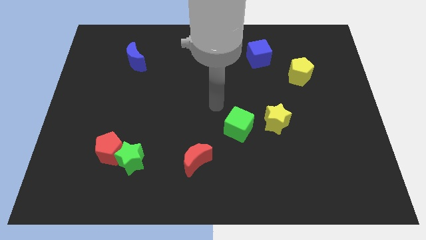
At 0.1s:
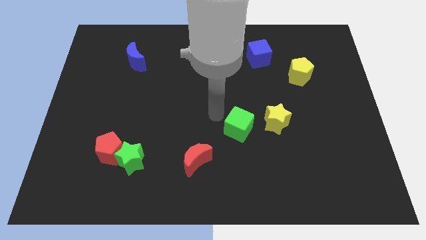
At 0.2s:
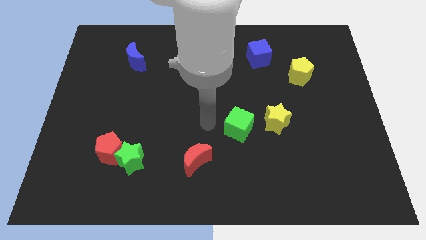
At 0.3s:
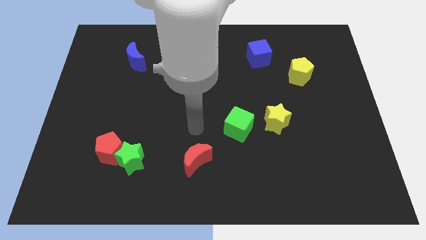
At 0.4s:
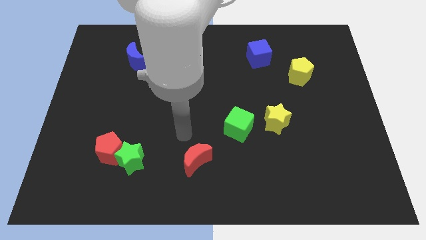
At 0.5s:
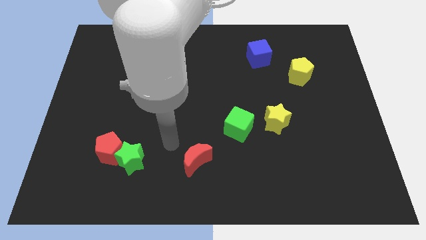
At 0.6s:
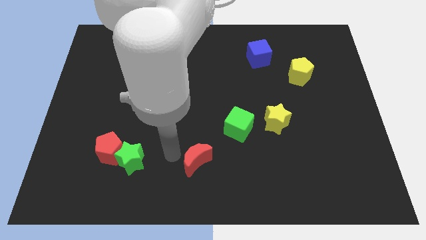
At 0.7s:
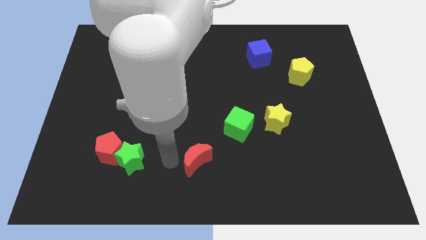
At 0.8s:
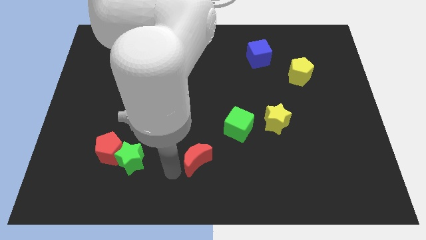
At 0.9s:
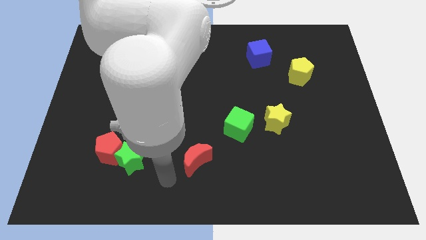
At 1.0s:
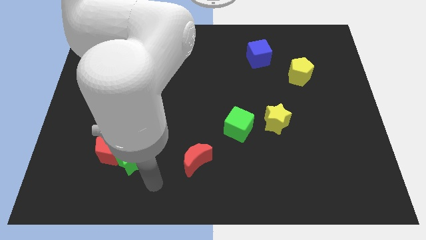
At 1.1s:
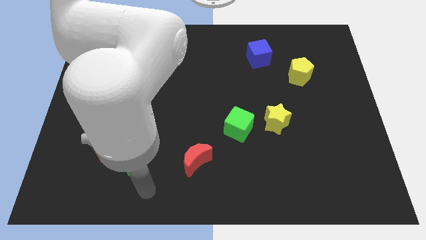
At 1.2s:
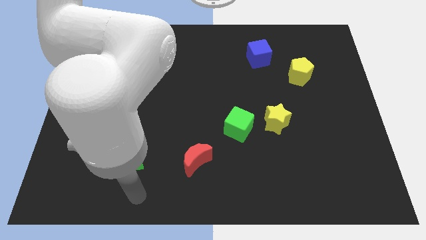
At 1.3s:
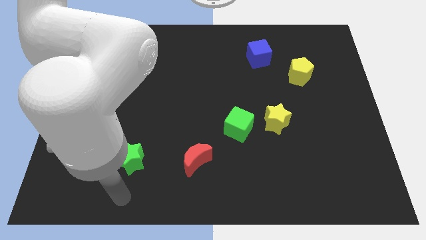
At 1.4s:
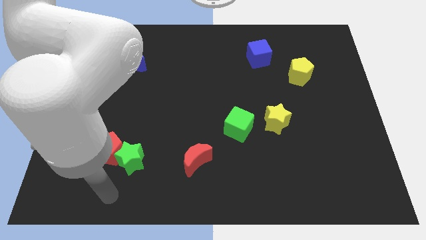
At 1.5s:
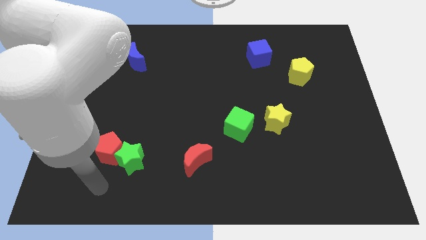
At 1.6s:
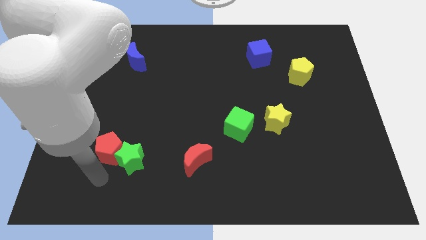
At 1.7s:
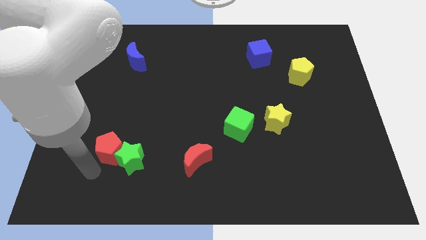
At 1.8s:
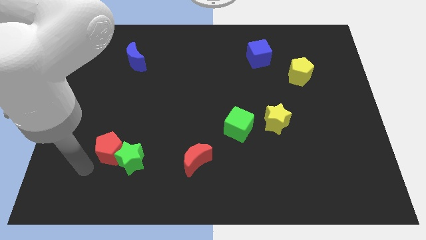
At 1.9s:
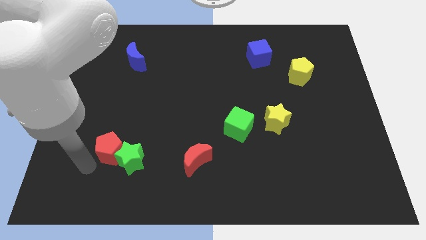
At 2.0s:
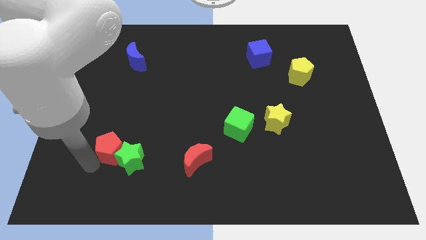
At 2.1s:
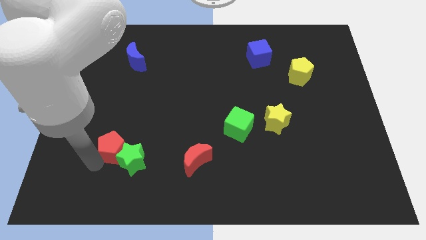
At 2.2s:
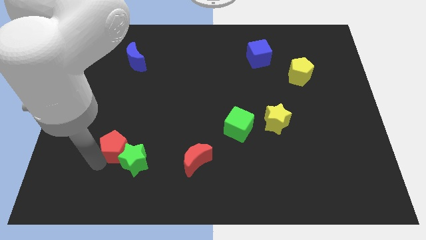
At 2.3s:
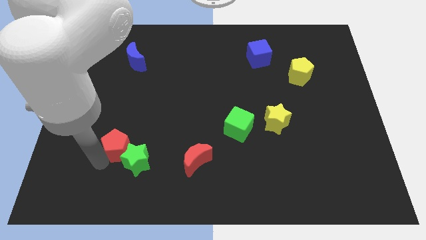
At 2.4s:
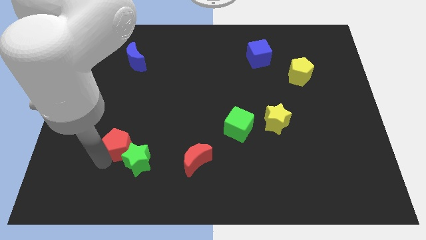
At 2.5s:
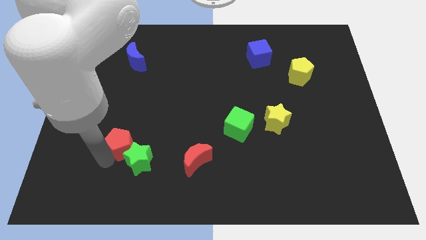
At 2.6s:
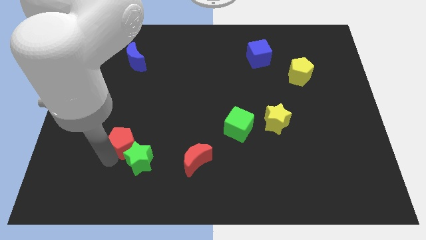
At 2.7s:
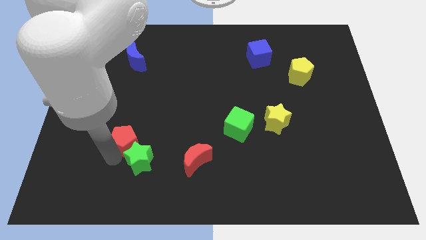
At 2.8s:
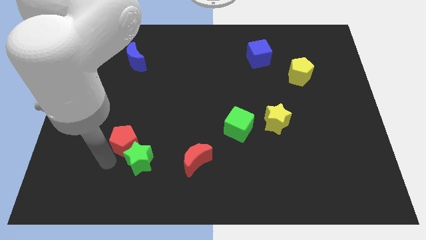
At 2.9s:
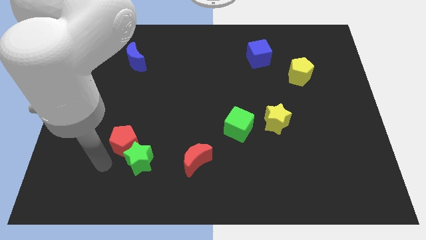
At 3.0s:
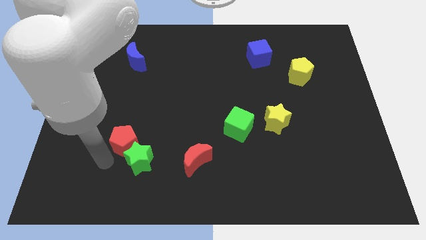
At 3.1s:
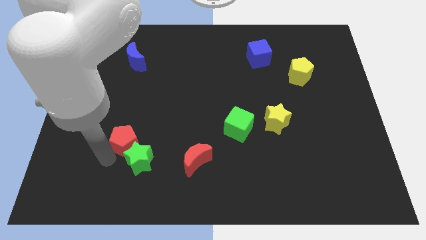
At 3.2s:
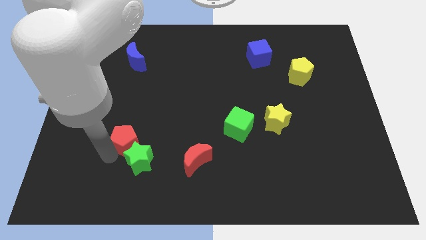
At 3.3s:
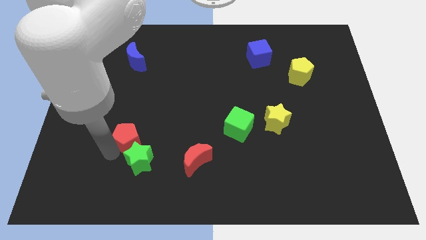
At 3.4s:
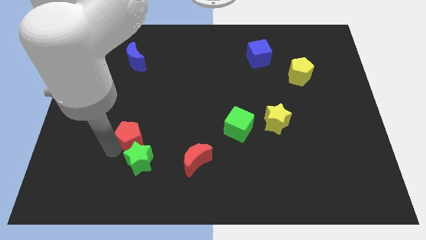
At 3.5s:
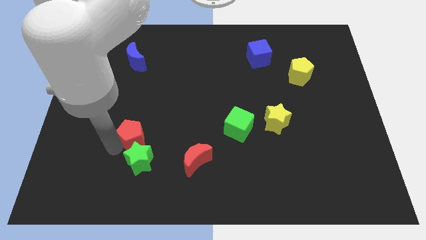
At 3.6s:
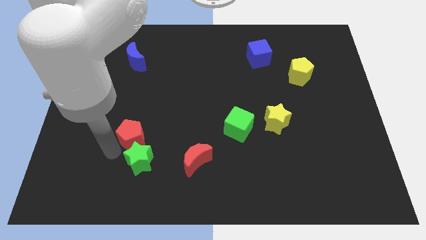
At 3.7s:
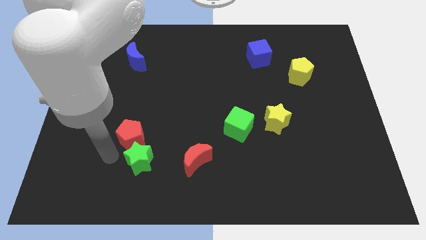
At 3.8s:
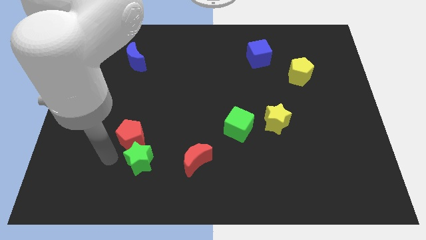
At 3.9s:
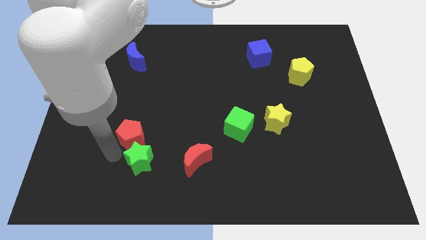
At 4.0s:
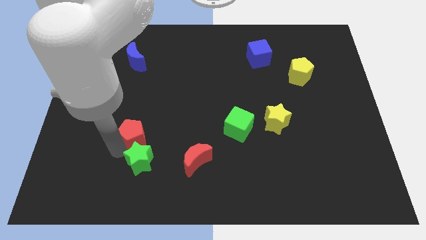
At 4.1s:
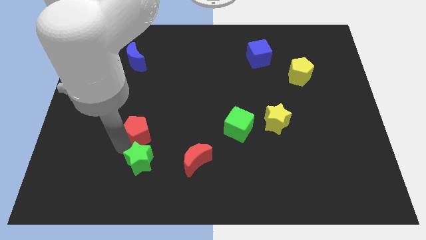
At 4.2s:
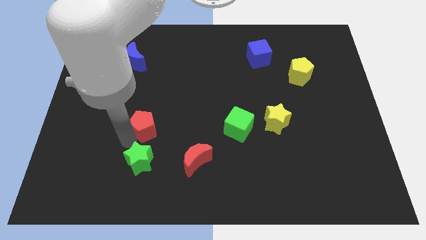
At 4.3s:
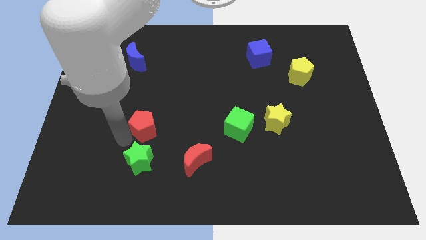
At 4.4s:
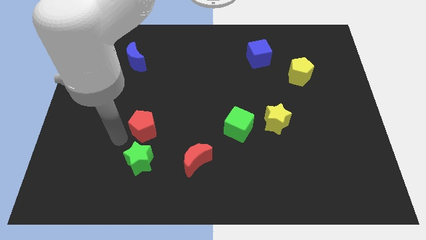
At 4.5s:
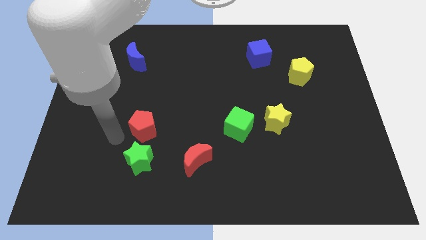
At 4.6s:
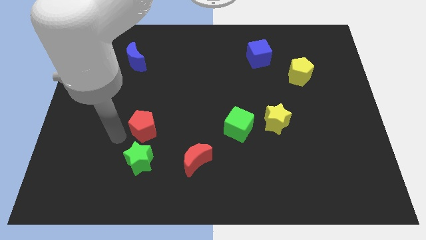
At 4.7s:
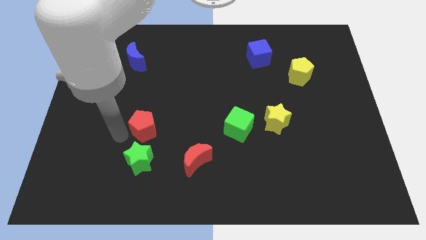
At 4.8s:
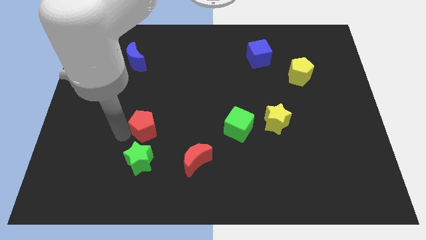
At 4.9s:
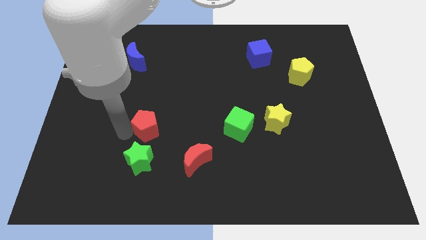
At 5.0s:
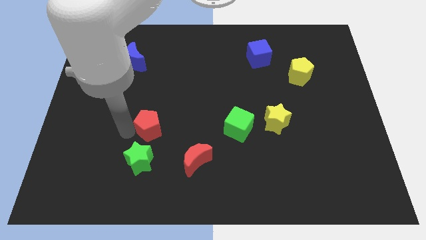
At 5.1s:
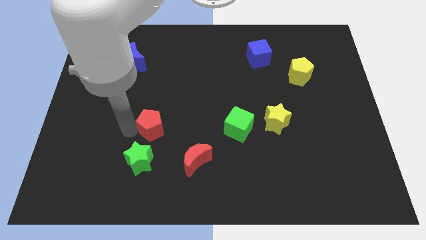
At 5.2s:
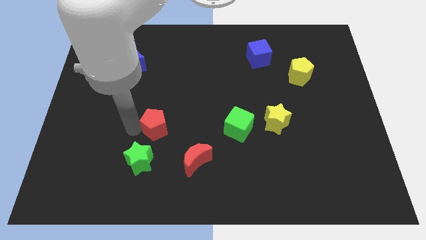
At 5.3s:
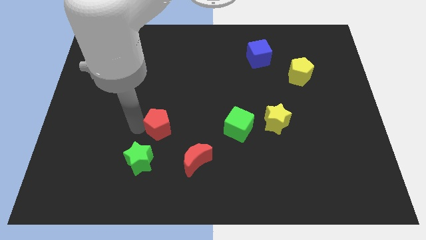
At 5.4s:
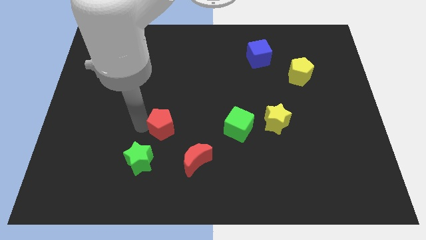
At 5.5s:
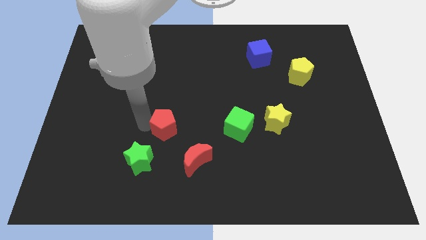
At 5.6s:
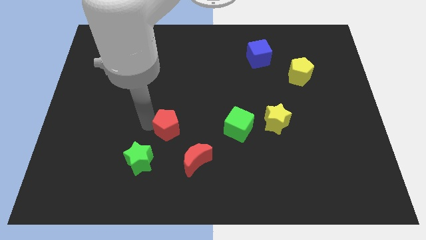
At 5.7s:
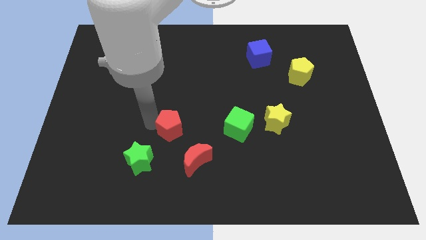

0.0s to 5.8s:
put the red pentagon to the middle

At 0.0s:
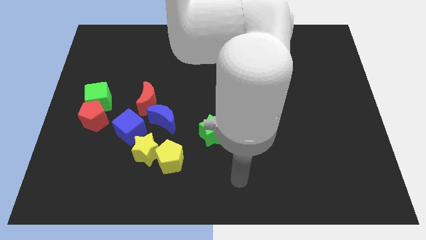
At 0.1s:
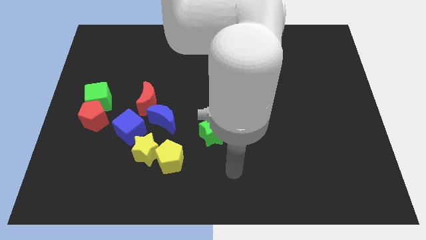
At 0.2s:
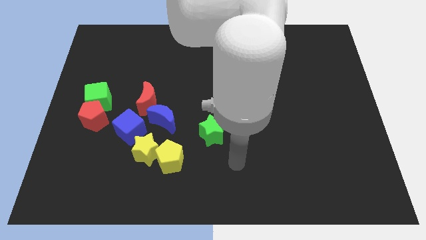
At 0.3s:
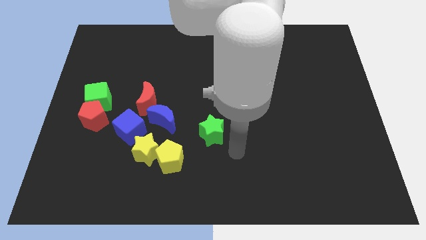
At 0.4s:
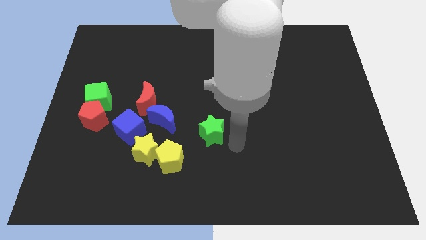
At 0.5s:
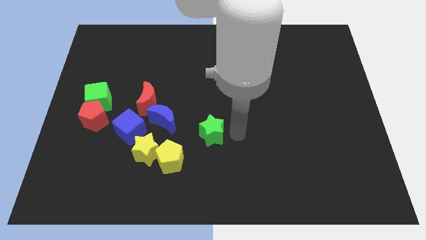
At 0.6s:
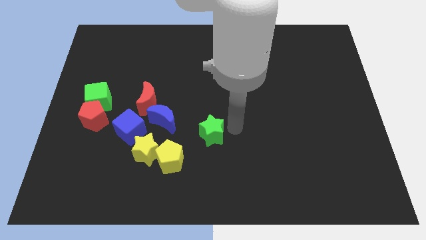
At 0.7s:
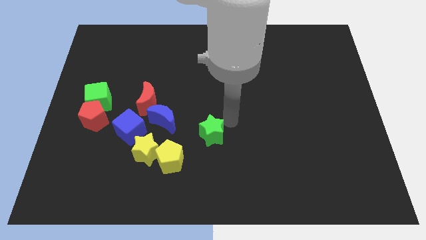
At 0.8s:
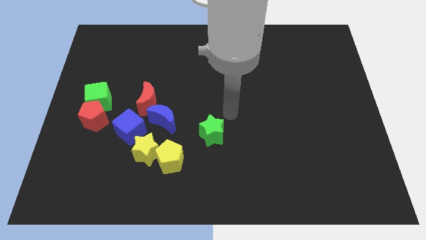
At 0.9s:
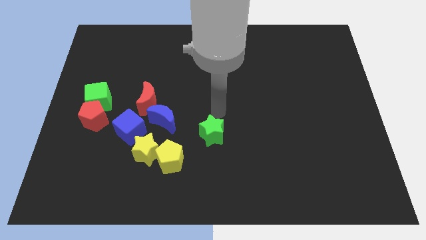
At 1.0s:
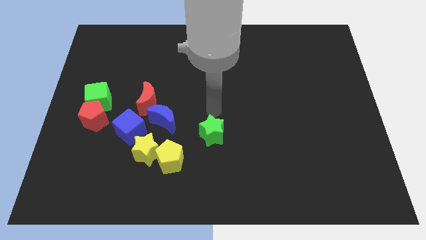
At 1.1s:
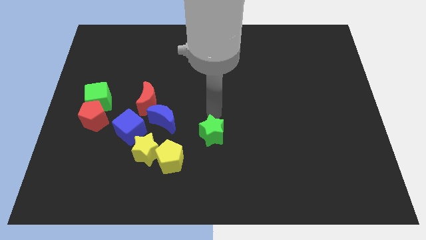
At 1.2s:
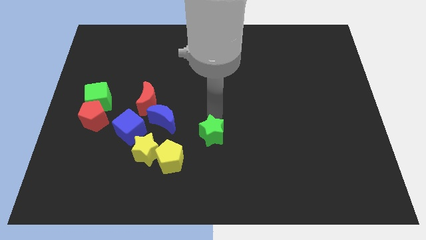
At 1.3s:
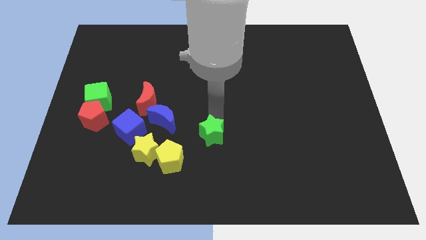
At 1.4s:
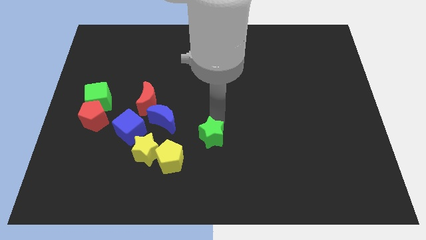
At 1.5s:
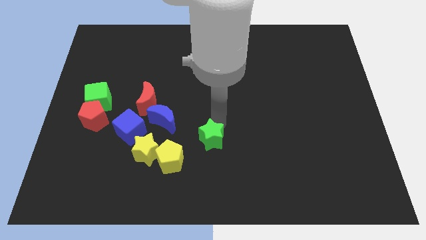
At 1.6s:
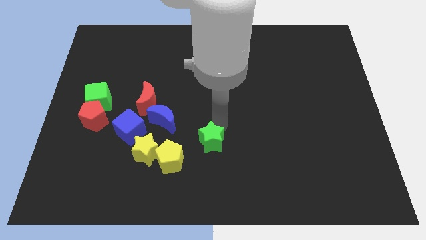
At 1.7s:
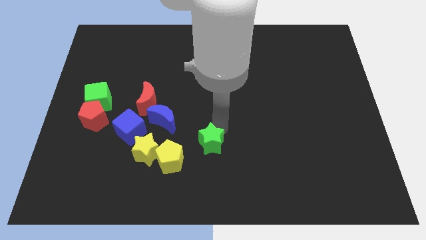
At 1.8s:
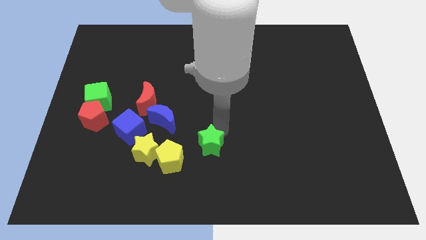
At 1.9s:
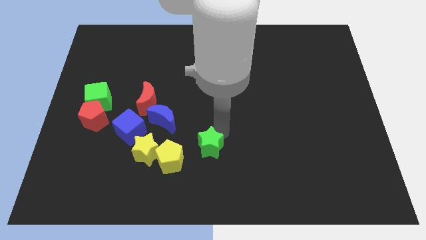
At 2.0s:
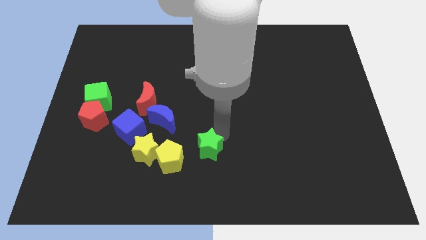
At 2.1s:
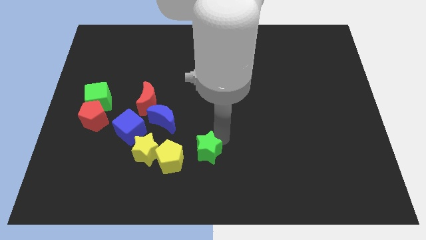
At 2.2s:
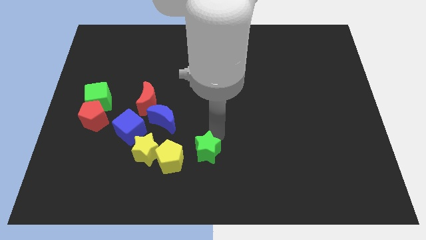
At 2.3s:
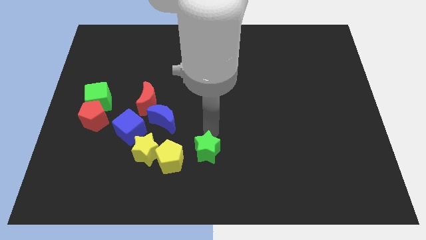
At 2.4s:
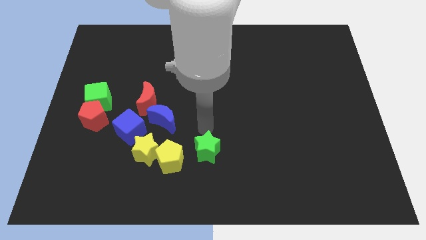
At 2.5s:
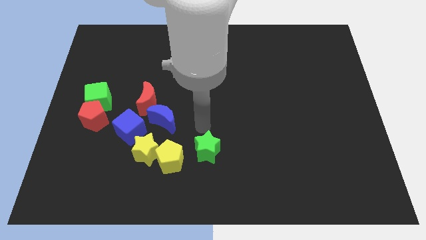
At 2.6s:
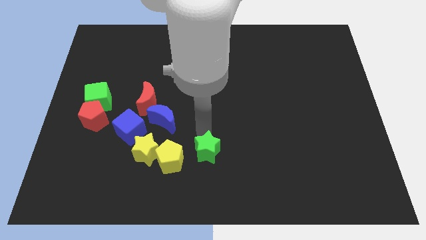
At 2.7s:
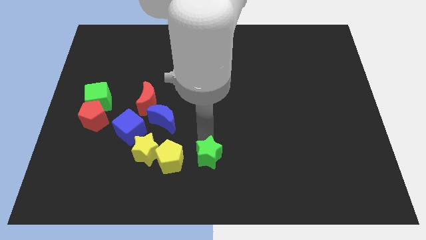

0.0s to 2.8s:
push the green star to the bottom
